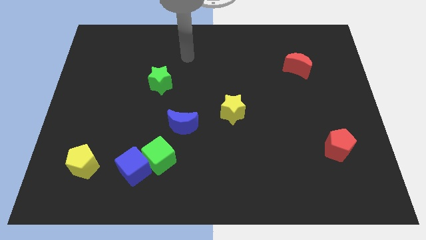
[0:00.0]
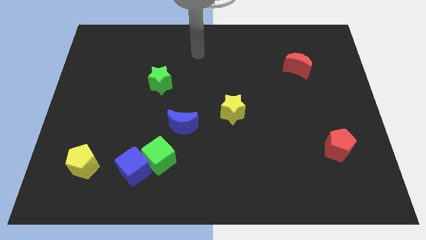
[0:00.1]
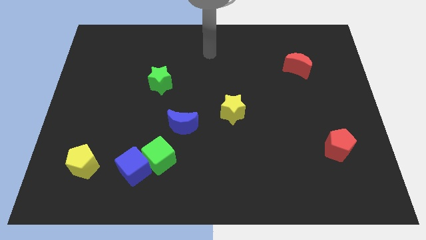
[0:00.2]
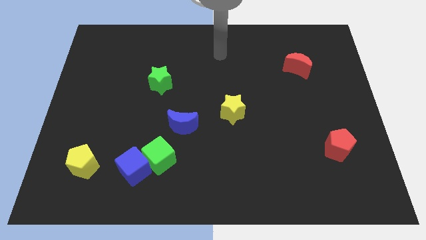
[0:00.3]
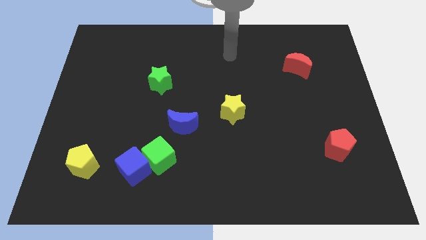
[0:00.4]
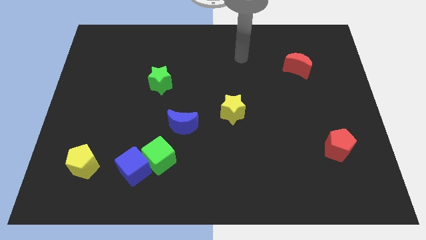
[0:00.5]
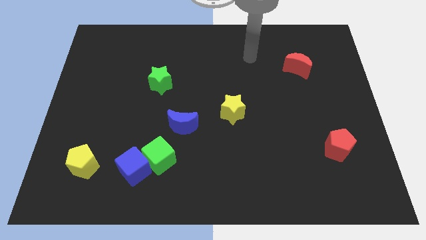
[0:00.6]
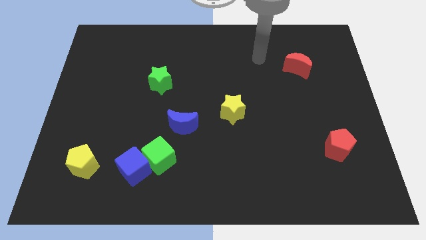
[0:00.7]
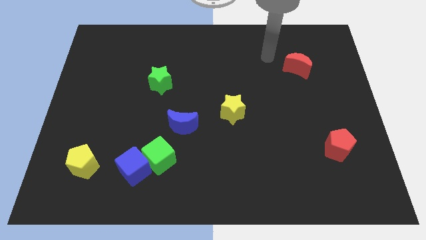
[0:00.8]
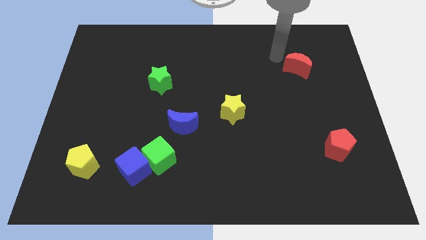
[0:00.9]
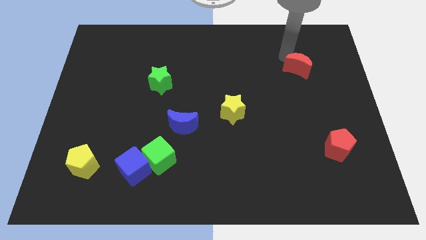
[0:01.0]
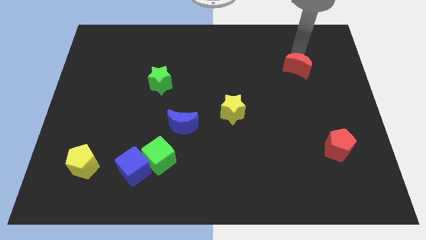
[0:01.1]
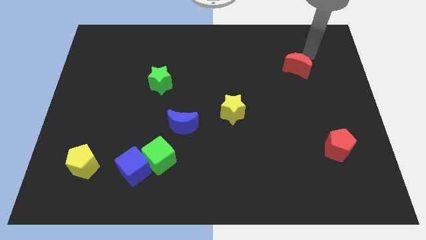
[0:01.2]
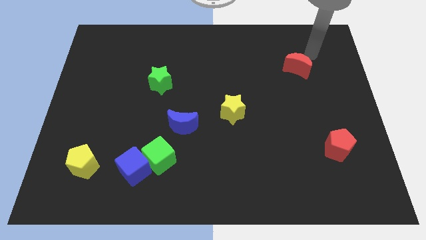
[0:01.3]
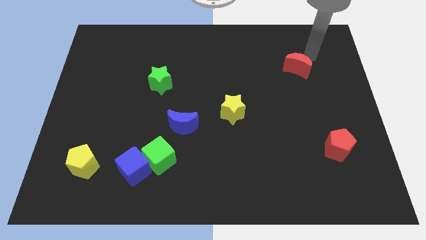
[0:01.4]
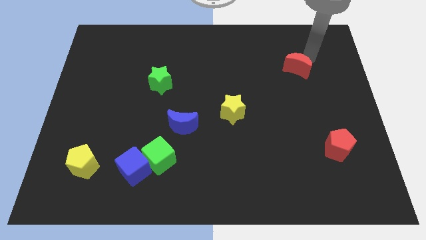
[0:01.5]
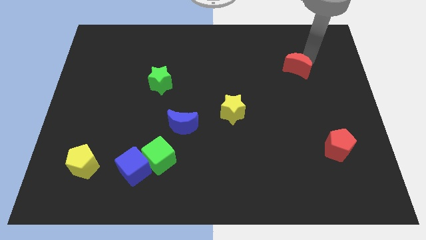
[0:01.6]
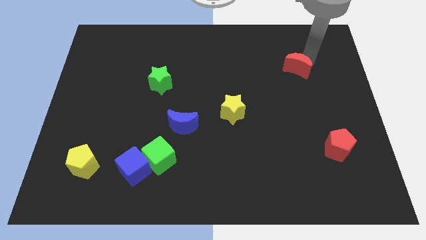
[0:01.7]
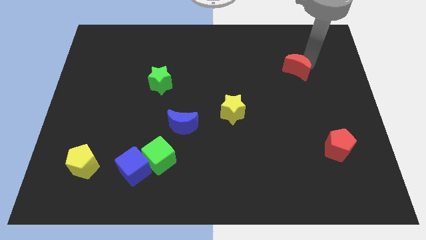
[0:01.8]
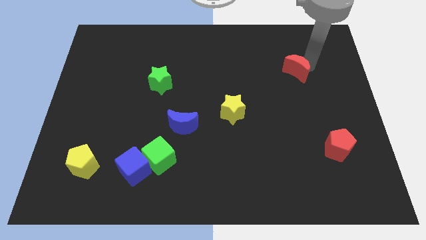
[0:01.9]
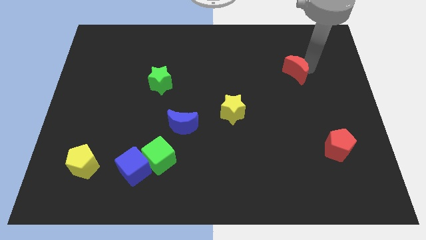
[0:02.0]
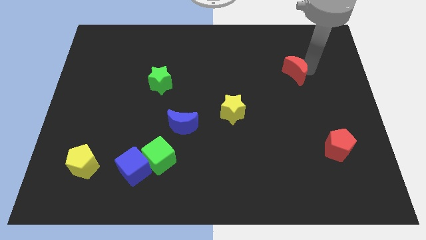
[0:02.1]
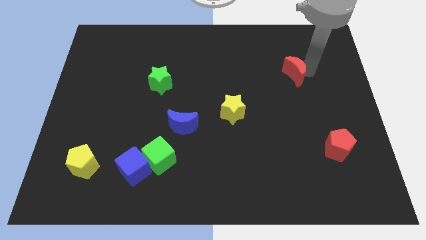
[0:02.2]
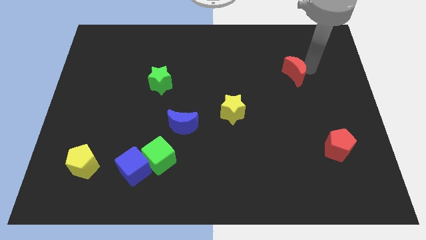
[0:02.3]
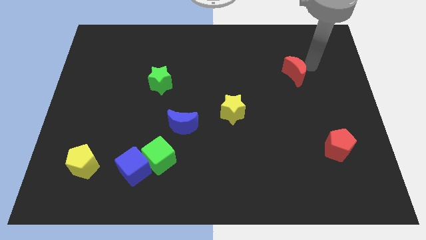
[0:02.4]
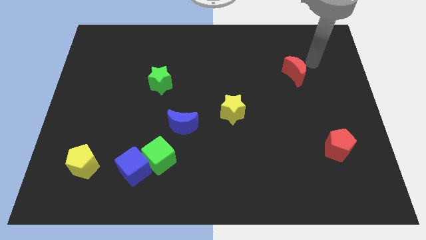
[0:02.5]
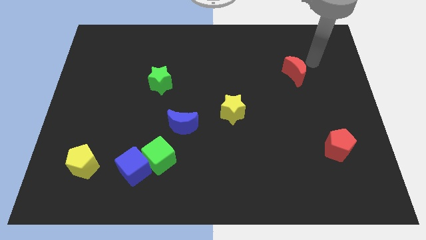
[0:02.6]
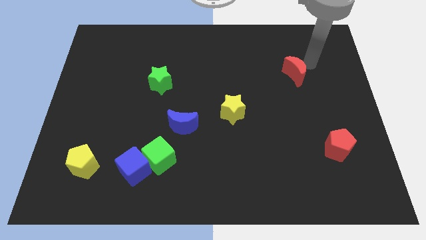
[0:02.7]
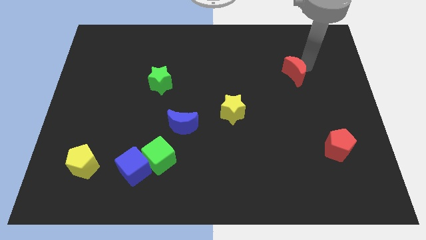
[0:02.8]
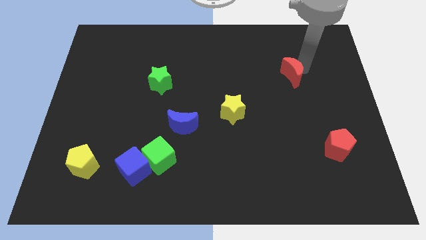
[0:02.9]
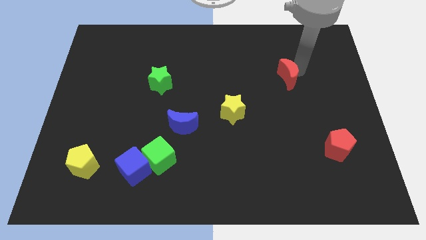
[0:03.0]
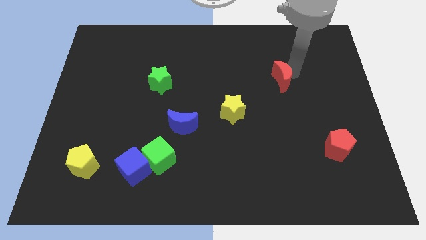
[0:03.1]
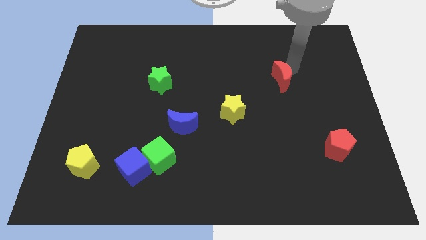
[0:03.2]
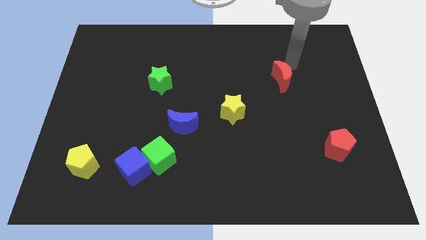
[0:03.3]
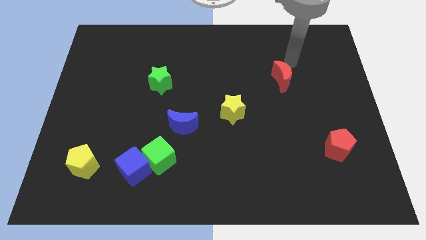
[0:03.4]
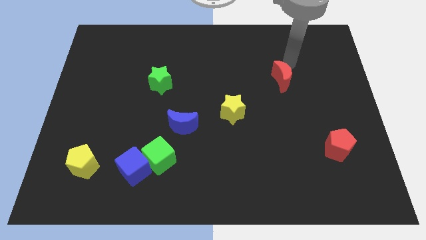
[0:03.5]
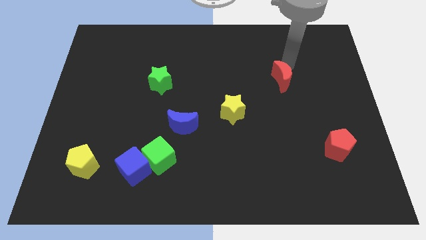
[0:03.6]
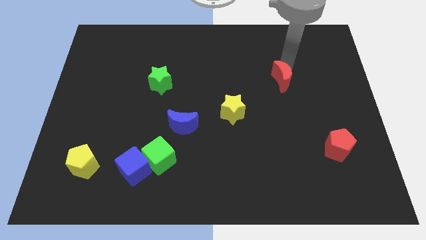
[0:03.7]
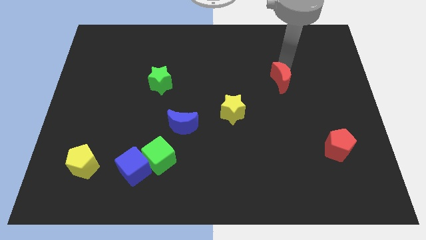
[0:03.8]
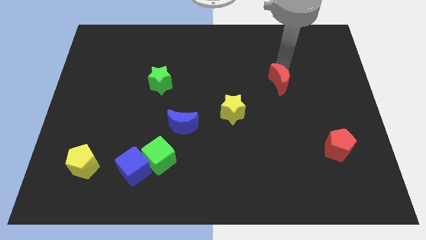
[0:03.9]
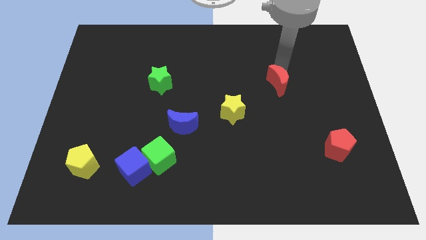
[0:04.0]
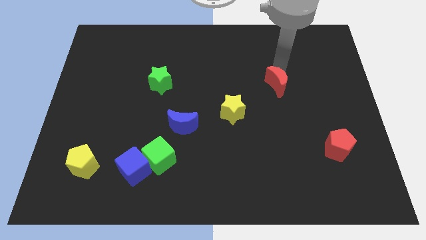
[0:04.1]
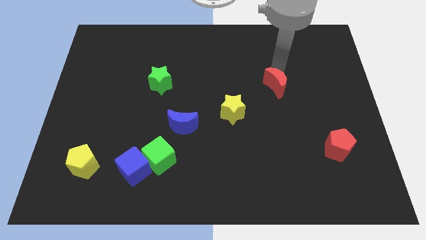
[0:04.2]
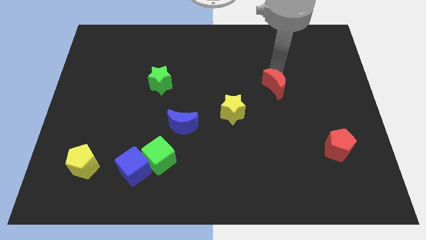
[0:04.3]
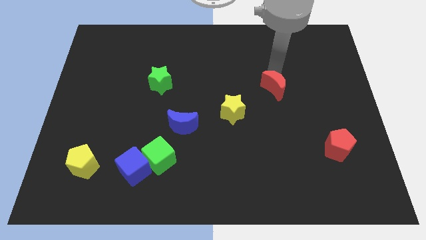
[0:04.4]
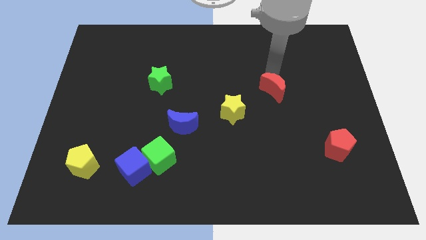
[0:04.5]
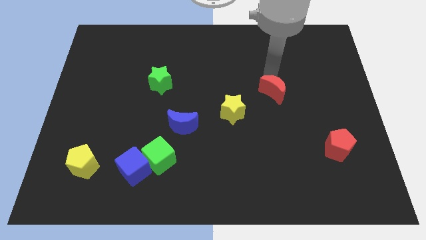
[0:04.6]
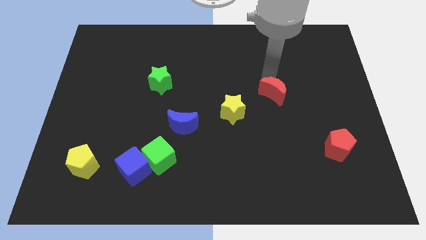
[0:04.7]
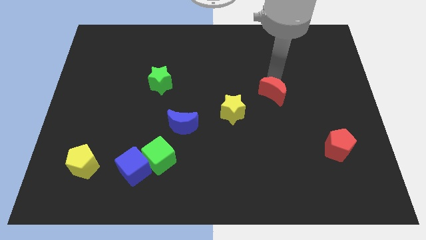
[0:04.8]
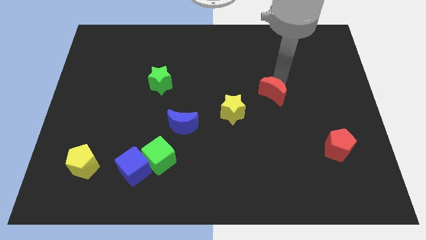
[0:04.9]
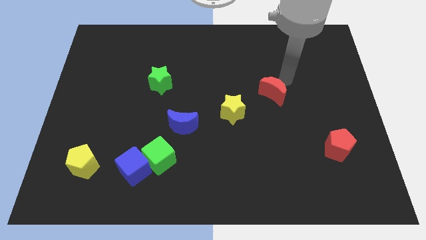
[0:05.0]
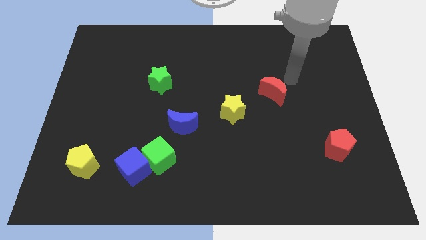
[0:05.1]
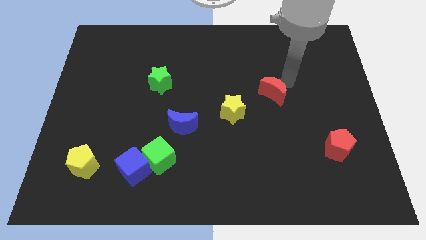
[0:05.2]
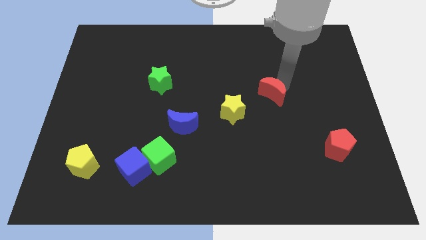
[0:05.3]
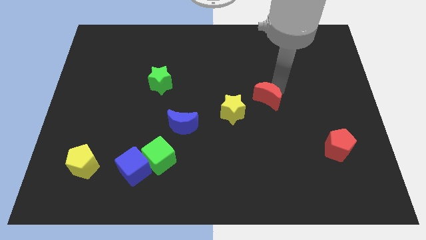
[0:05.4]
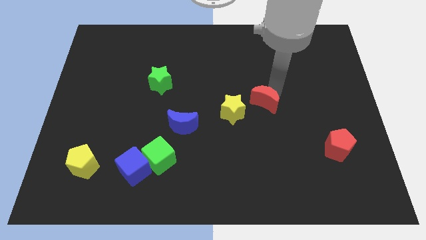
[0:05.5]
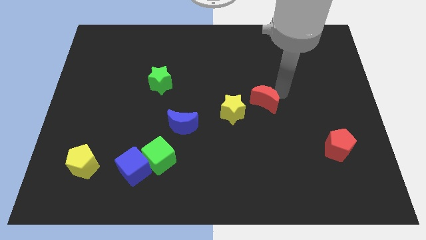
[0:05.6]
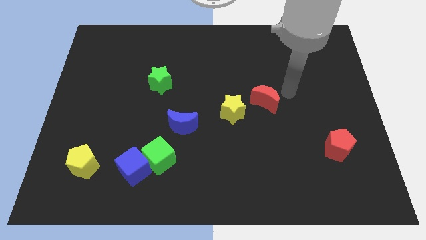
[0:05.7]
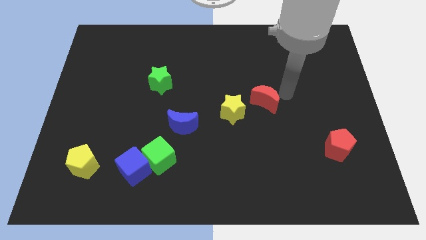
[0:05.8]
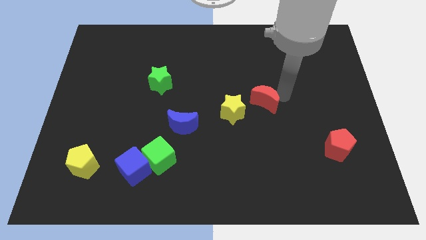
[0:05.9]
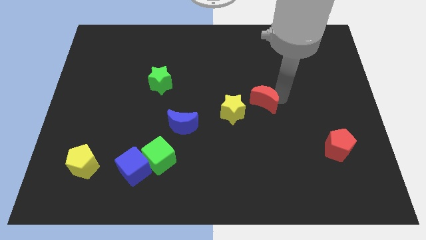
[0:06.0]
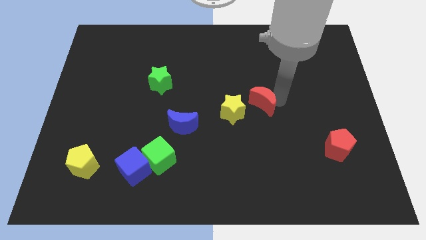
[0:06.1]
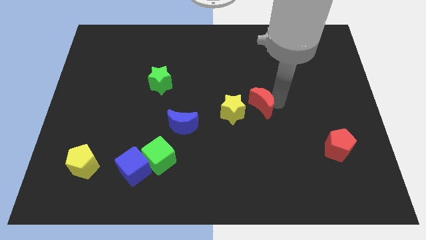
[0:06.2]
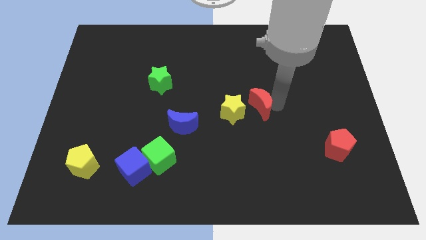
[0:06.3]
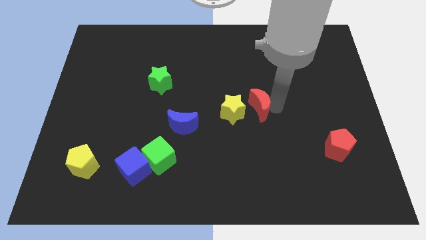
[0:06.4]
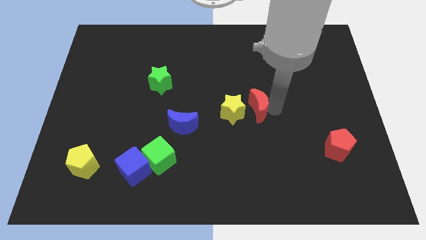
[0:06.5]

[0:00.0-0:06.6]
move the red moon close to the yellow star

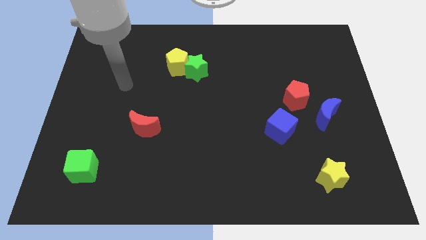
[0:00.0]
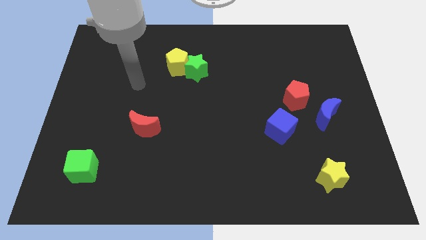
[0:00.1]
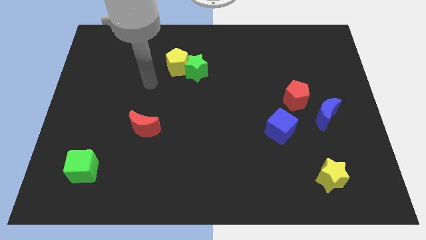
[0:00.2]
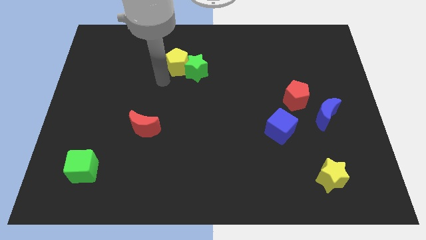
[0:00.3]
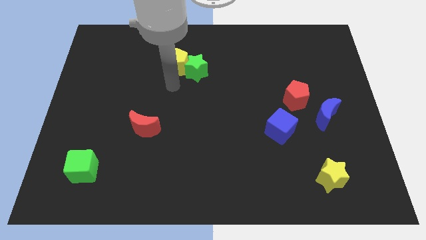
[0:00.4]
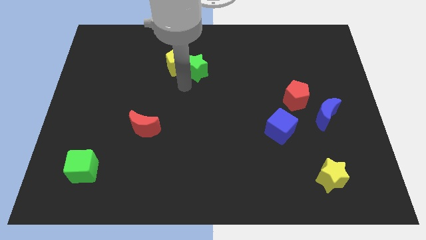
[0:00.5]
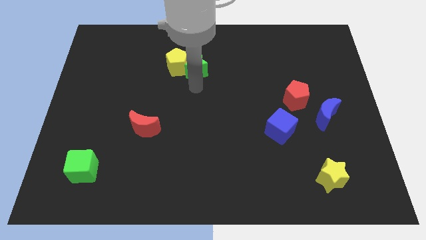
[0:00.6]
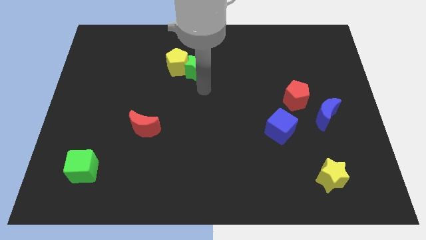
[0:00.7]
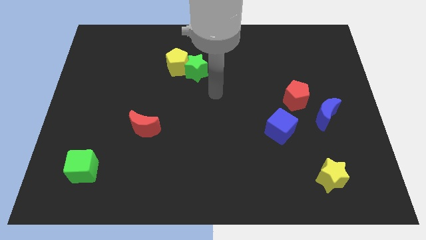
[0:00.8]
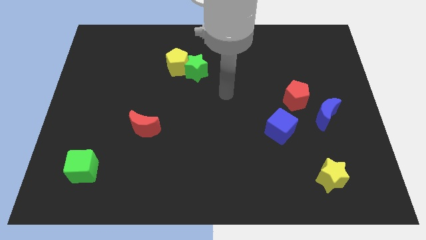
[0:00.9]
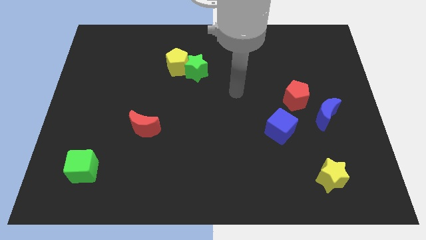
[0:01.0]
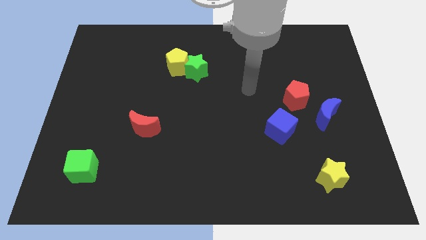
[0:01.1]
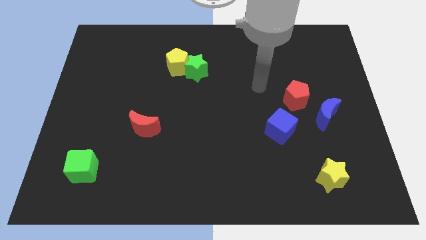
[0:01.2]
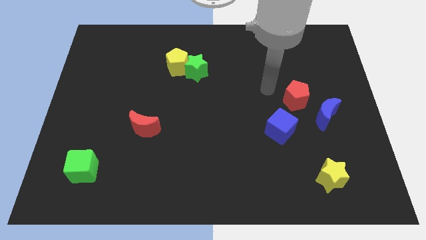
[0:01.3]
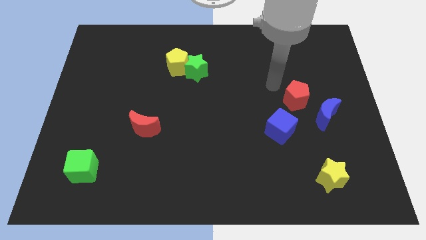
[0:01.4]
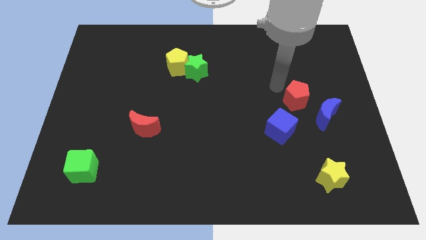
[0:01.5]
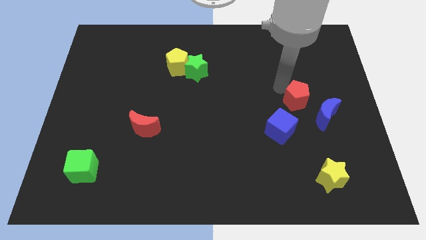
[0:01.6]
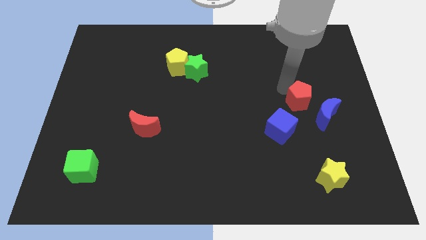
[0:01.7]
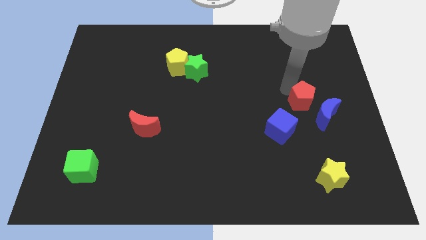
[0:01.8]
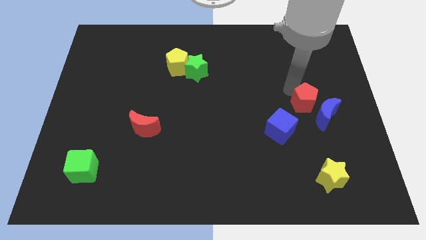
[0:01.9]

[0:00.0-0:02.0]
put the red pentagon close to the blue moon
